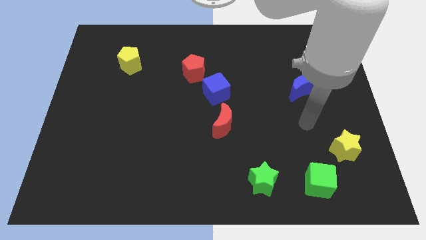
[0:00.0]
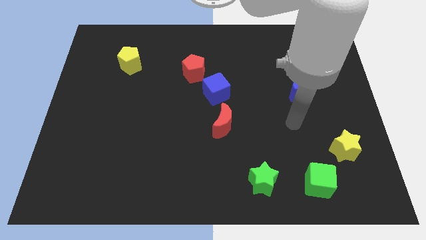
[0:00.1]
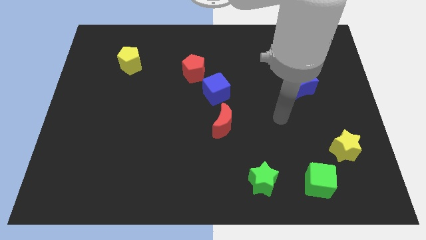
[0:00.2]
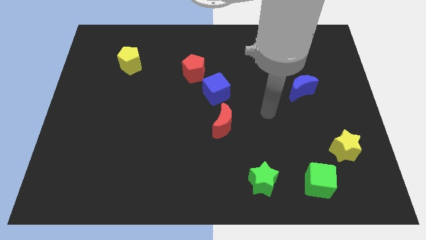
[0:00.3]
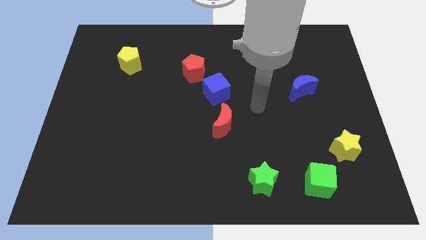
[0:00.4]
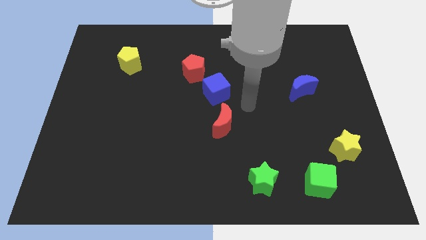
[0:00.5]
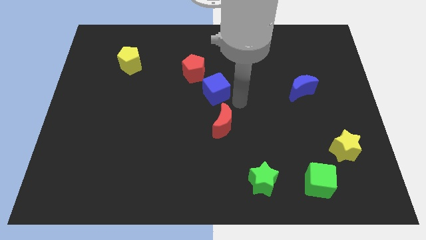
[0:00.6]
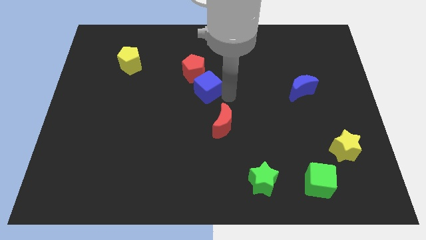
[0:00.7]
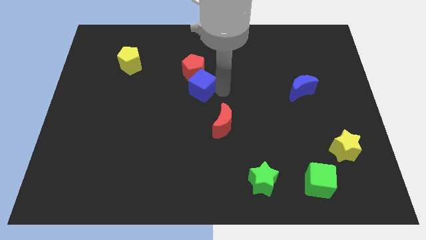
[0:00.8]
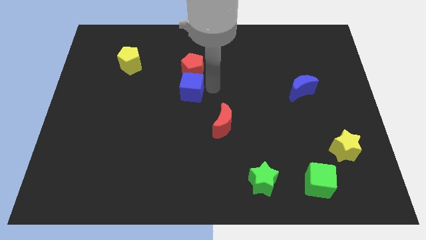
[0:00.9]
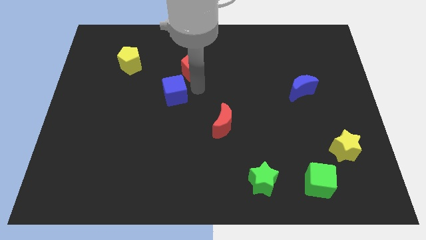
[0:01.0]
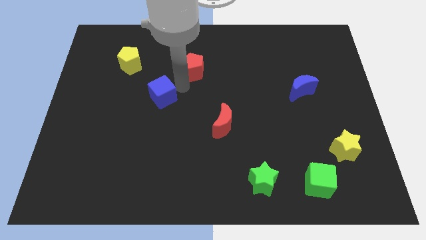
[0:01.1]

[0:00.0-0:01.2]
separate the red pentagon from the blue cube

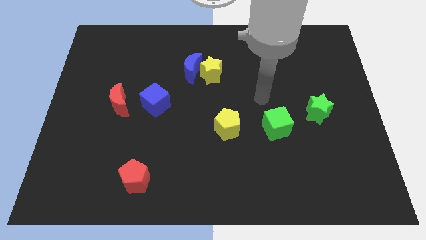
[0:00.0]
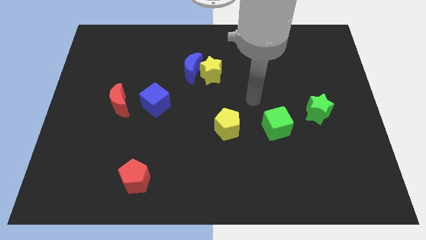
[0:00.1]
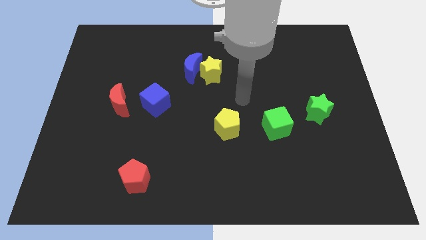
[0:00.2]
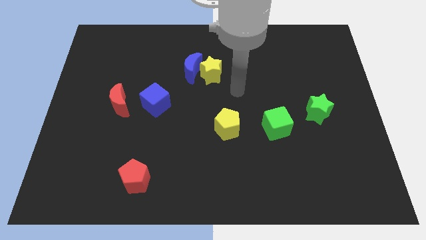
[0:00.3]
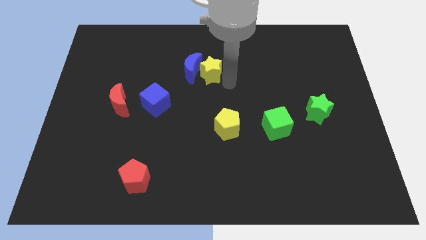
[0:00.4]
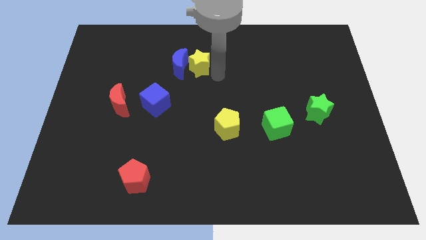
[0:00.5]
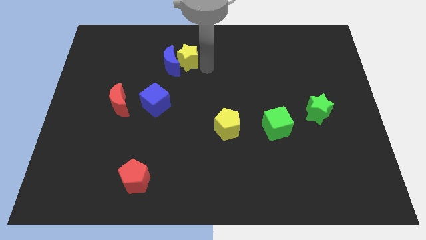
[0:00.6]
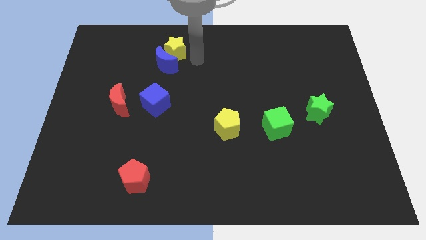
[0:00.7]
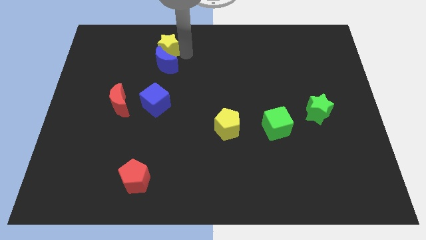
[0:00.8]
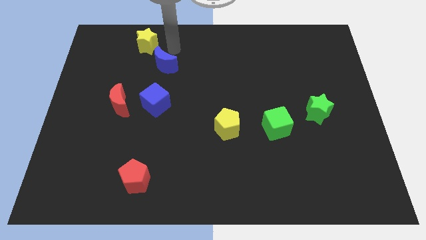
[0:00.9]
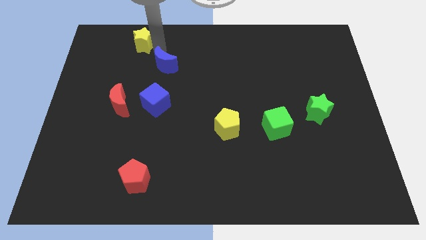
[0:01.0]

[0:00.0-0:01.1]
separate the blue moon from the yellow star

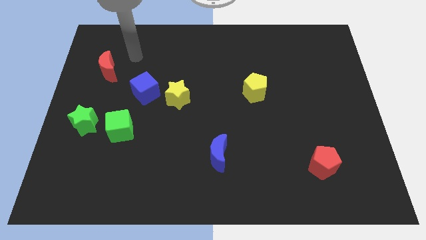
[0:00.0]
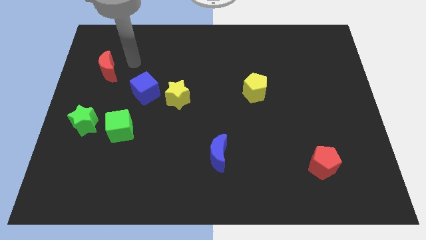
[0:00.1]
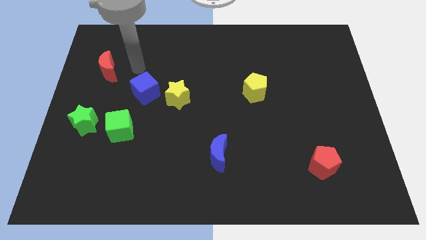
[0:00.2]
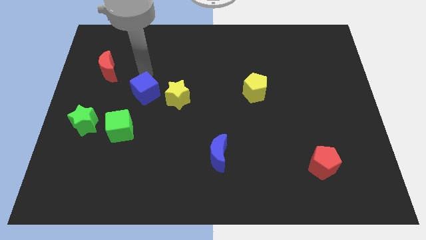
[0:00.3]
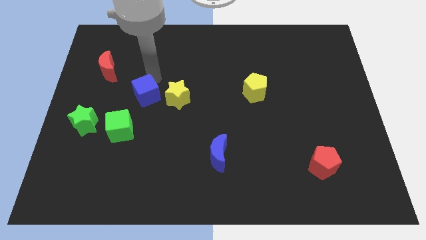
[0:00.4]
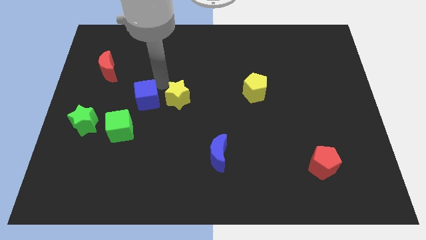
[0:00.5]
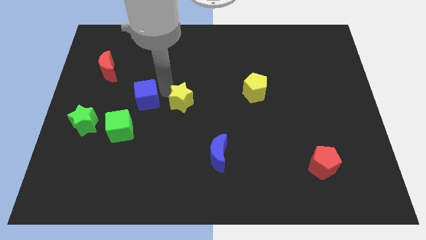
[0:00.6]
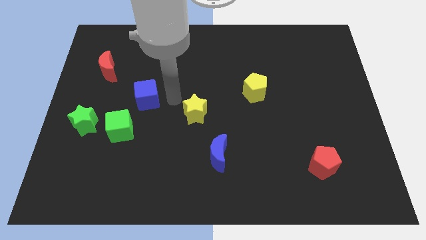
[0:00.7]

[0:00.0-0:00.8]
move the blue cube away from the yellow star

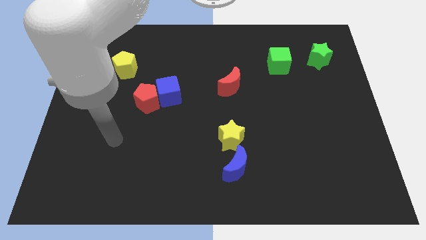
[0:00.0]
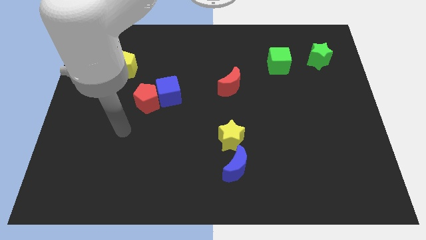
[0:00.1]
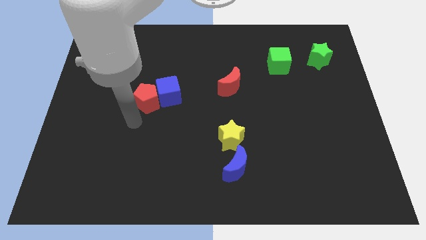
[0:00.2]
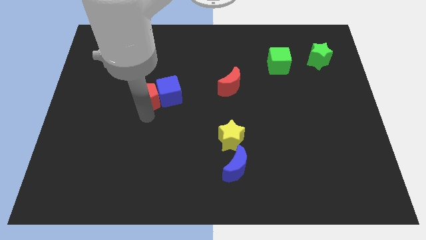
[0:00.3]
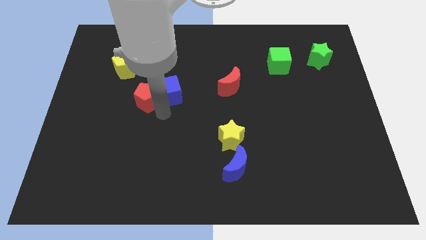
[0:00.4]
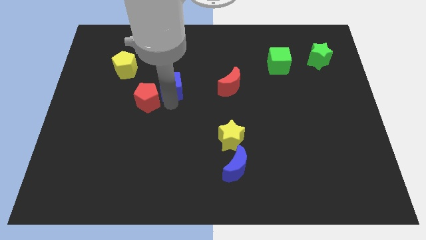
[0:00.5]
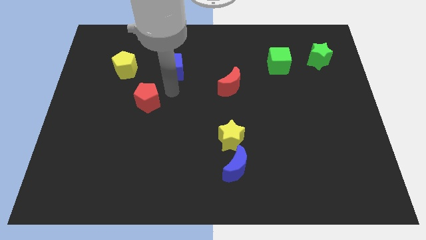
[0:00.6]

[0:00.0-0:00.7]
move the red pentagon away from the blue cube

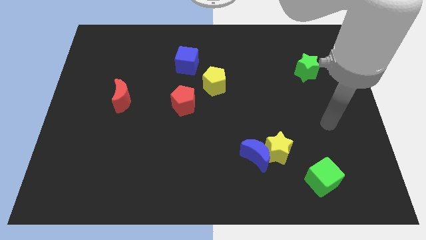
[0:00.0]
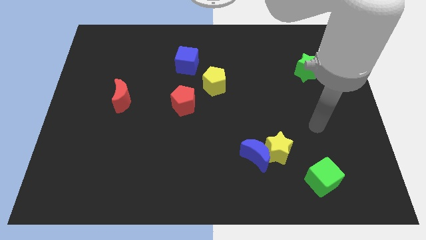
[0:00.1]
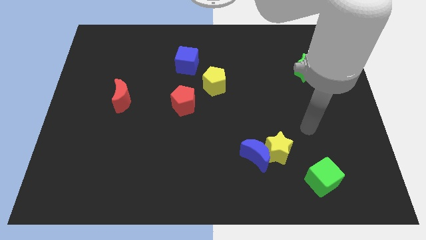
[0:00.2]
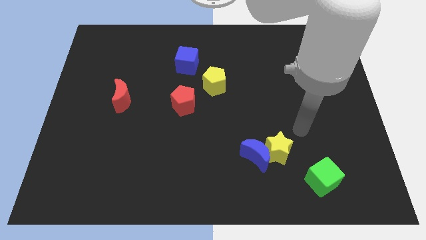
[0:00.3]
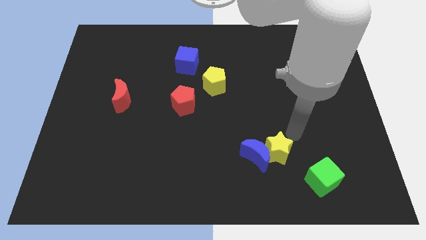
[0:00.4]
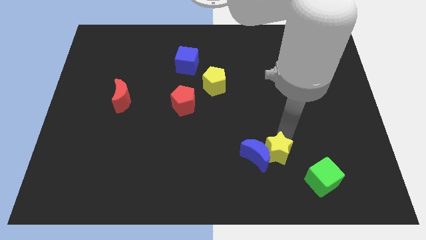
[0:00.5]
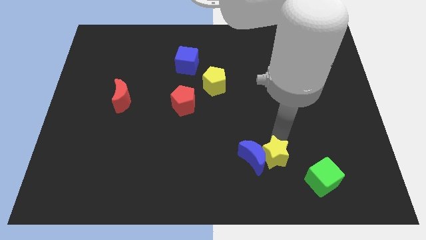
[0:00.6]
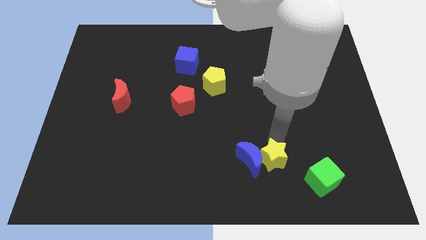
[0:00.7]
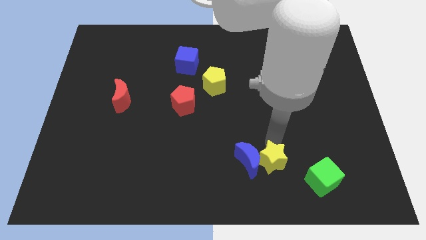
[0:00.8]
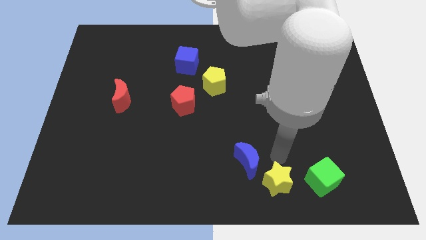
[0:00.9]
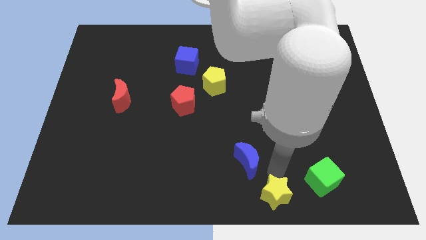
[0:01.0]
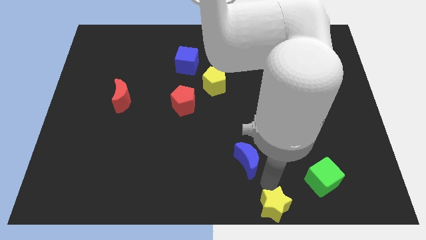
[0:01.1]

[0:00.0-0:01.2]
pull the blue moon apart from the yellow star

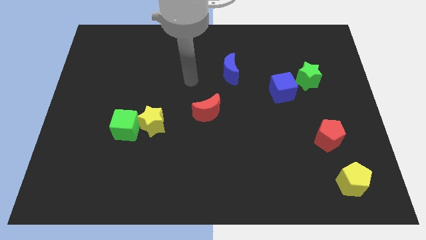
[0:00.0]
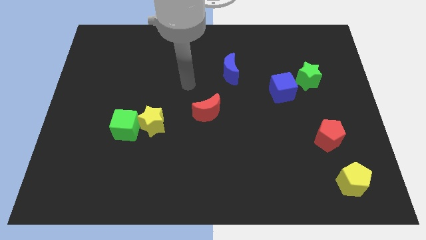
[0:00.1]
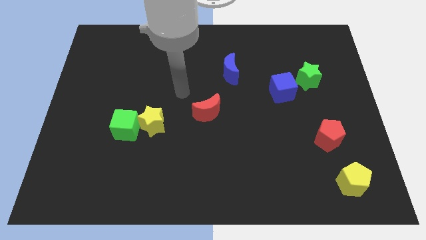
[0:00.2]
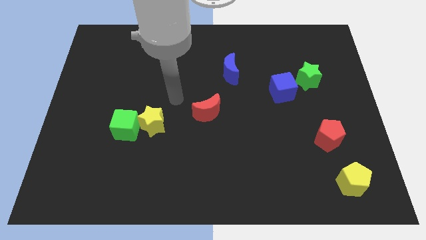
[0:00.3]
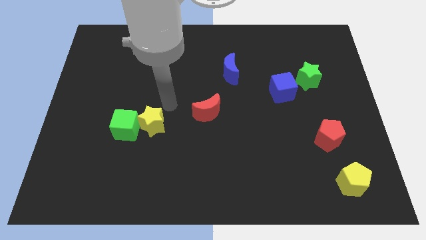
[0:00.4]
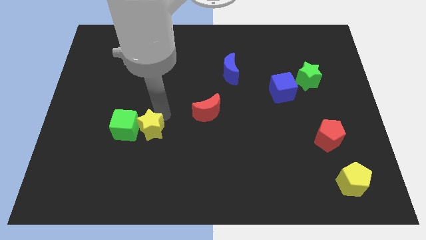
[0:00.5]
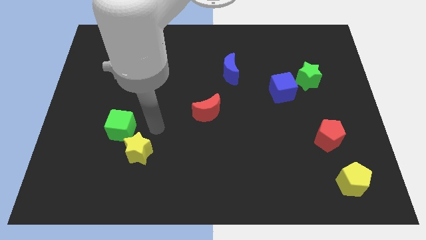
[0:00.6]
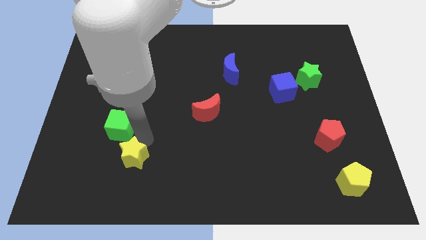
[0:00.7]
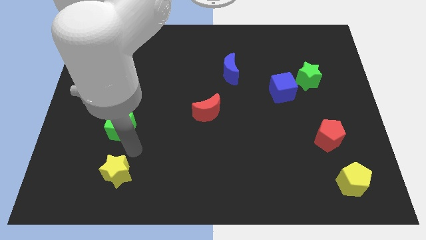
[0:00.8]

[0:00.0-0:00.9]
move the green cube away from the yellow star

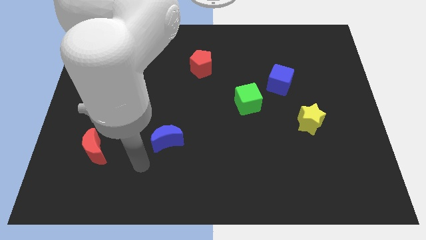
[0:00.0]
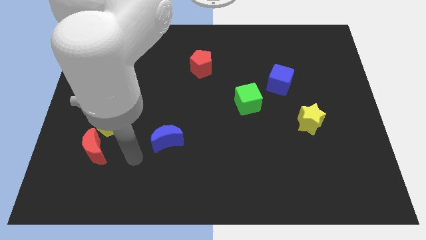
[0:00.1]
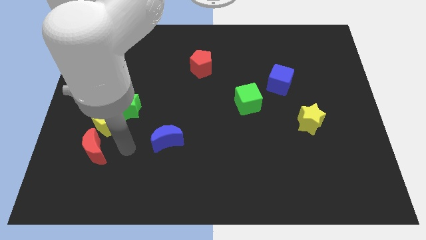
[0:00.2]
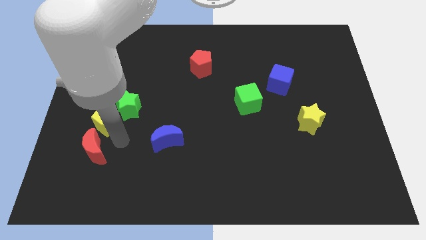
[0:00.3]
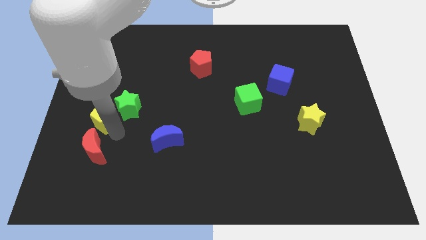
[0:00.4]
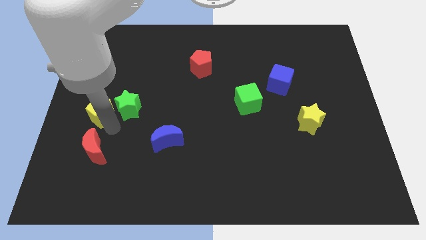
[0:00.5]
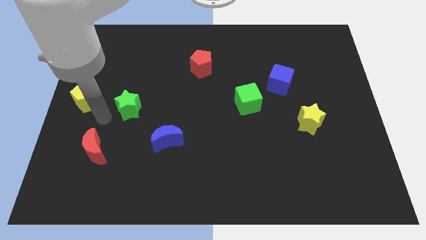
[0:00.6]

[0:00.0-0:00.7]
move the green star away from the yellow pentagon

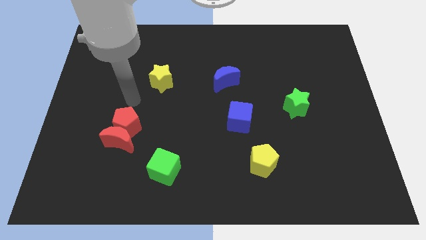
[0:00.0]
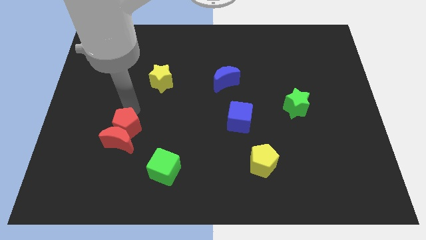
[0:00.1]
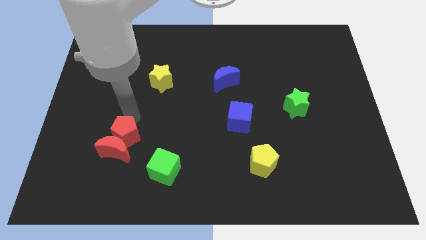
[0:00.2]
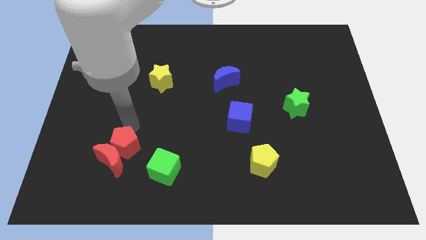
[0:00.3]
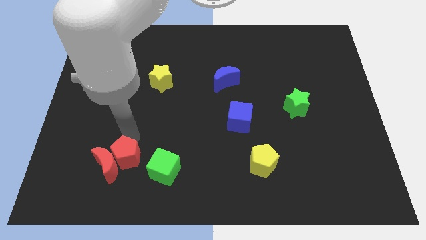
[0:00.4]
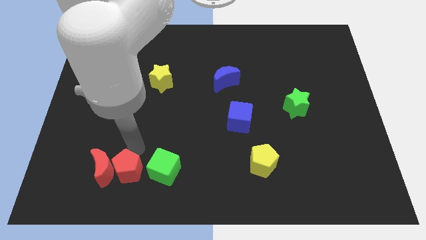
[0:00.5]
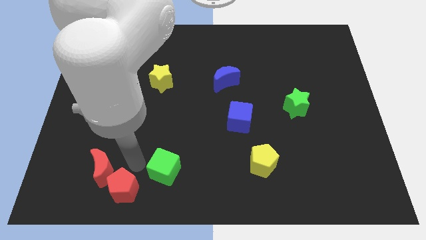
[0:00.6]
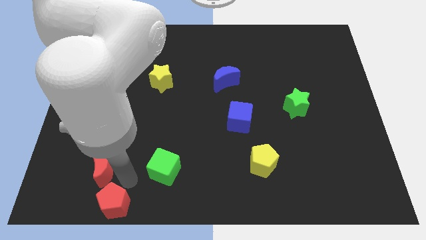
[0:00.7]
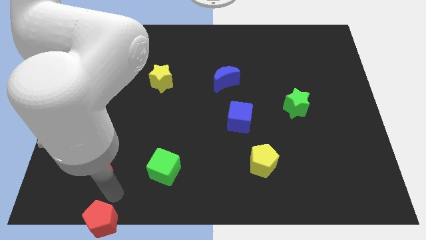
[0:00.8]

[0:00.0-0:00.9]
move the red moon away from the red pentagon

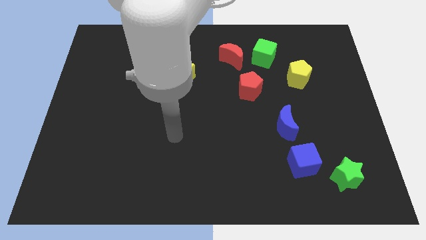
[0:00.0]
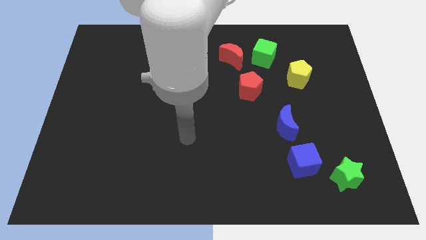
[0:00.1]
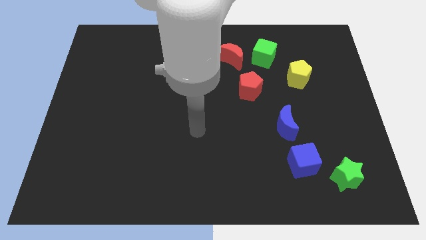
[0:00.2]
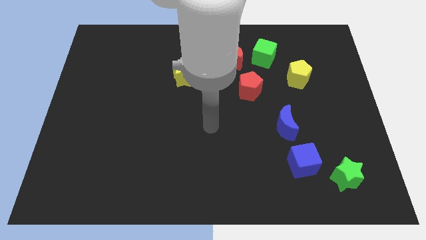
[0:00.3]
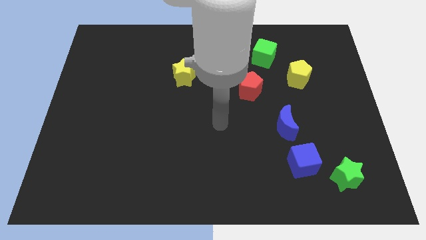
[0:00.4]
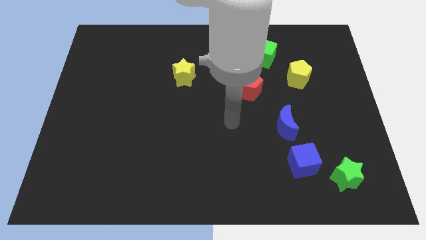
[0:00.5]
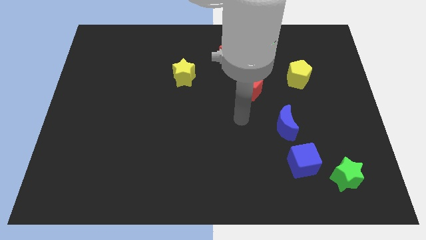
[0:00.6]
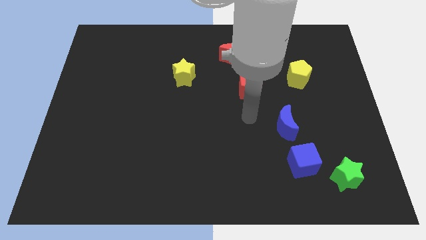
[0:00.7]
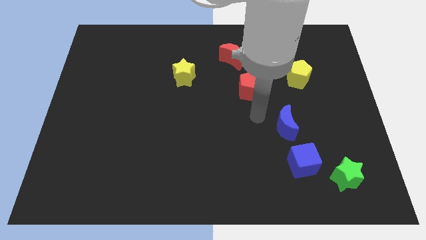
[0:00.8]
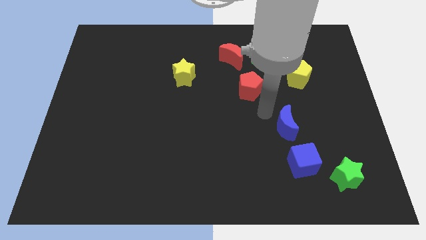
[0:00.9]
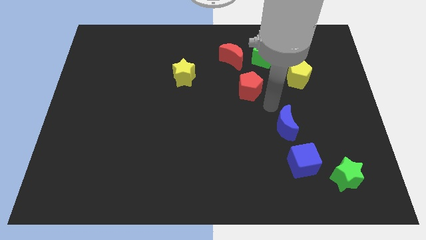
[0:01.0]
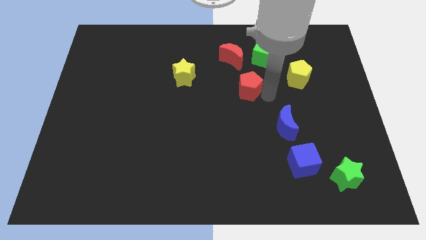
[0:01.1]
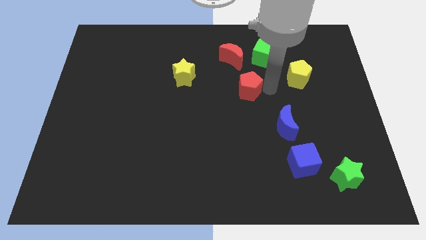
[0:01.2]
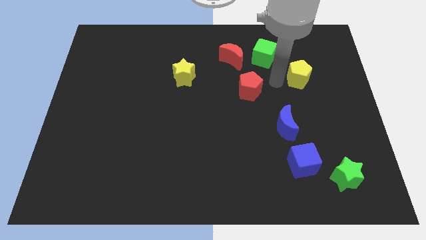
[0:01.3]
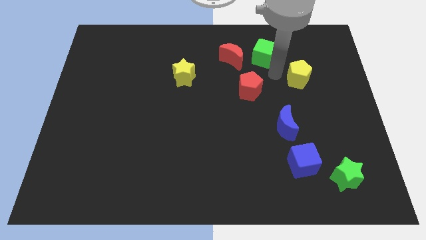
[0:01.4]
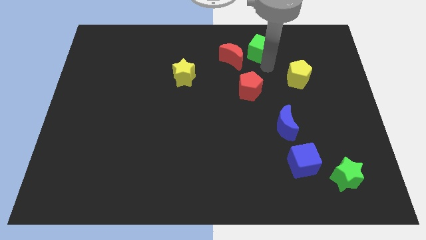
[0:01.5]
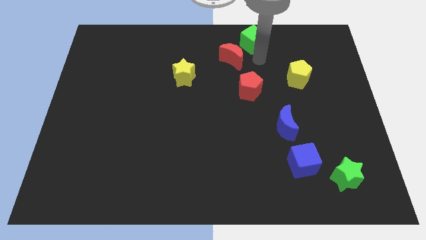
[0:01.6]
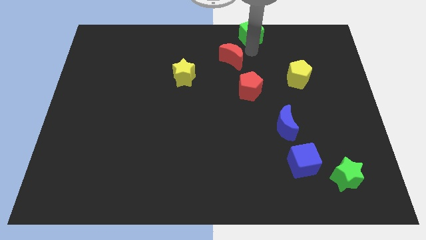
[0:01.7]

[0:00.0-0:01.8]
separate the red moon from the green cube
